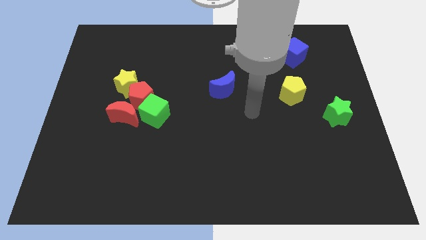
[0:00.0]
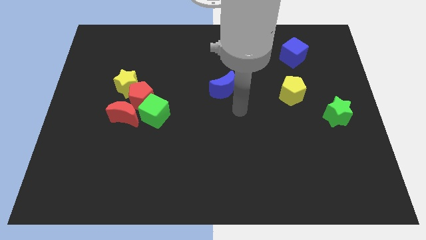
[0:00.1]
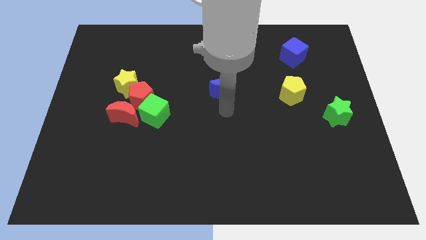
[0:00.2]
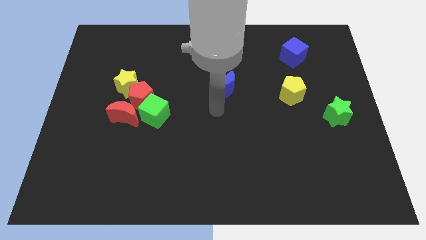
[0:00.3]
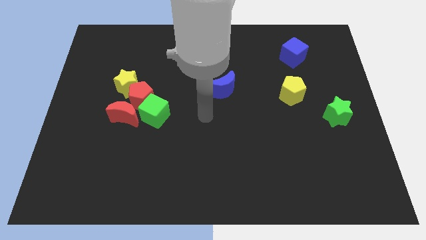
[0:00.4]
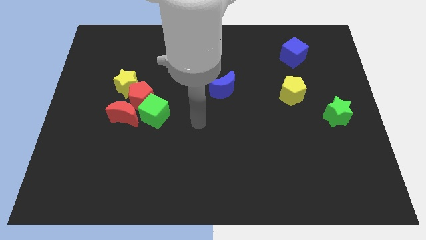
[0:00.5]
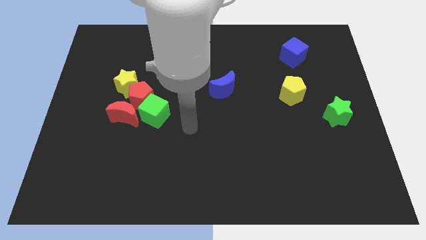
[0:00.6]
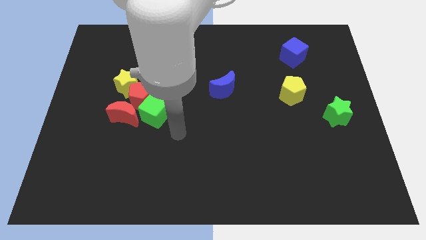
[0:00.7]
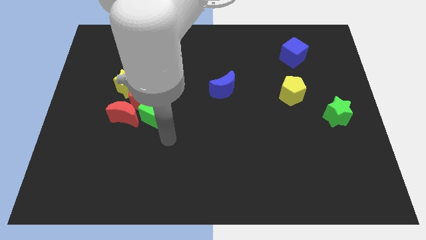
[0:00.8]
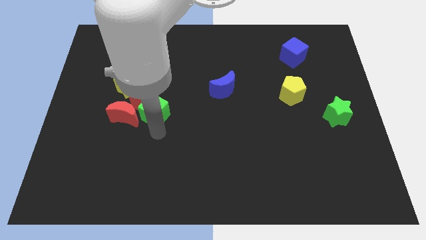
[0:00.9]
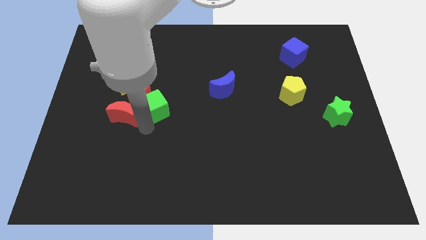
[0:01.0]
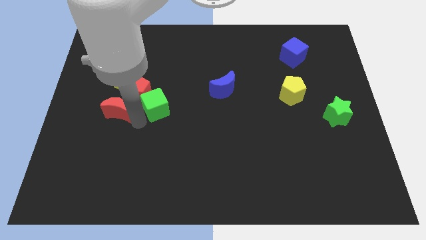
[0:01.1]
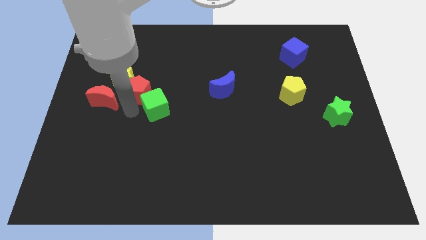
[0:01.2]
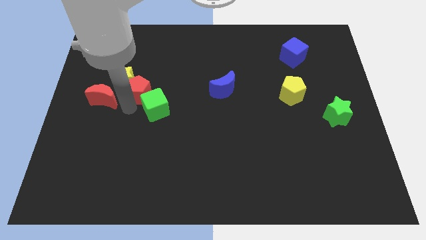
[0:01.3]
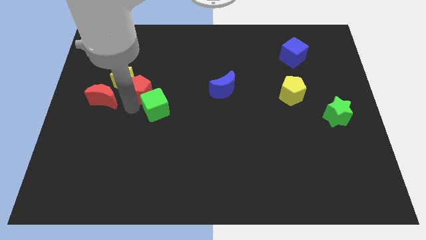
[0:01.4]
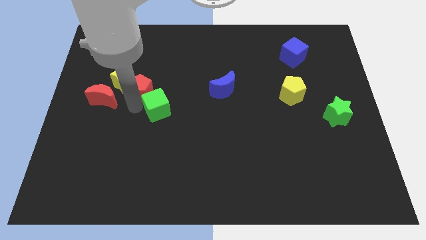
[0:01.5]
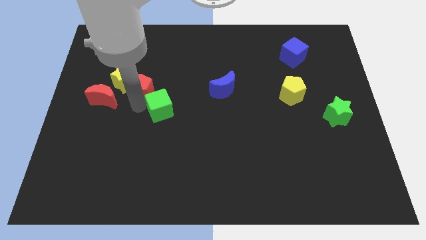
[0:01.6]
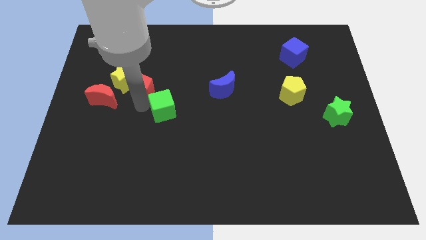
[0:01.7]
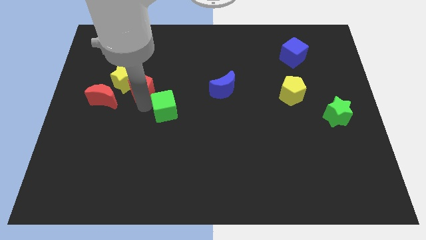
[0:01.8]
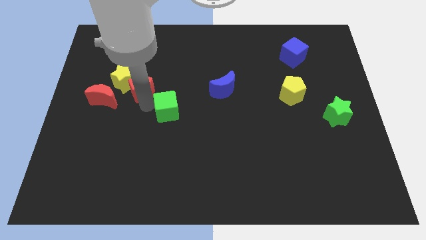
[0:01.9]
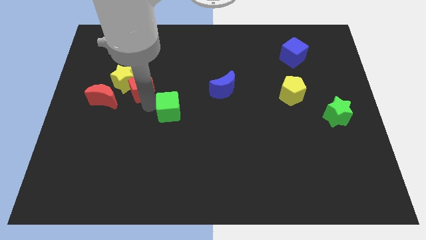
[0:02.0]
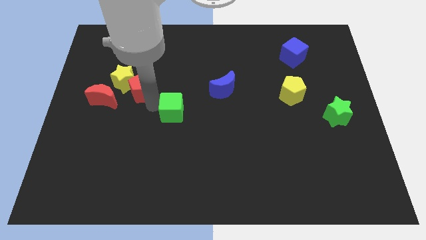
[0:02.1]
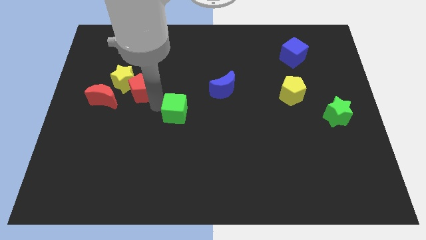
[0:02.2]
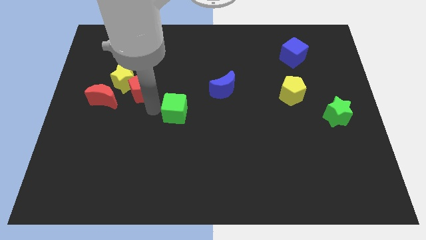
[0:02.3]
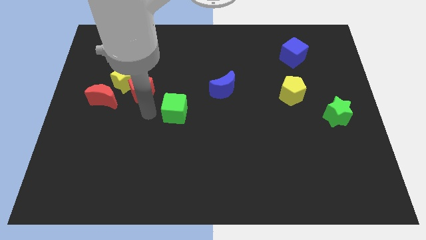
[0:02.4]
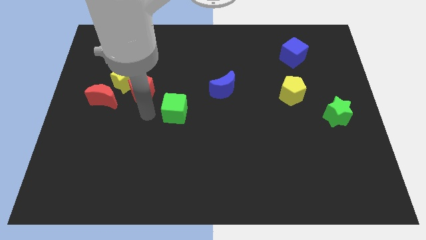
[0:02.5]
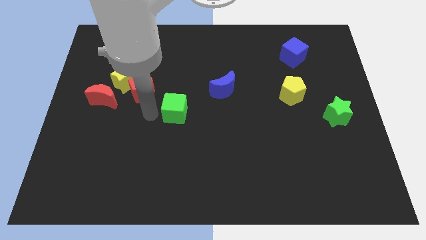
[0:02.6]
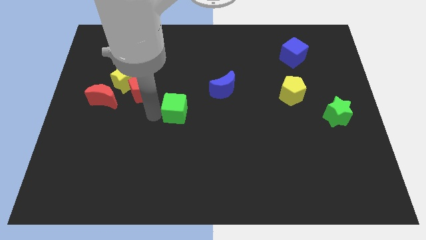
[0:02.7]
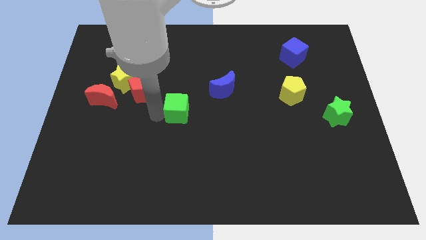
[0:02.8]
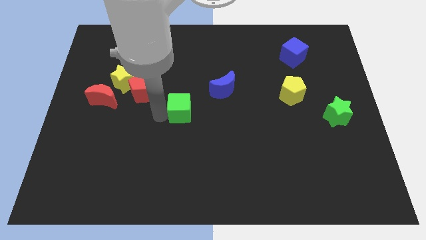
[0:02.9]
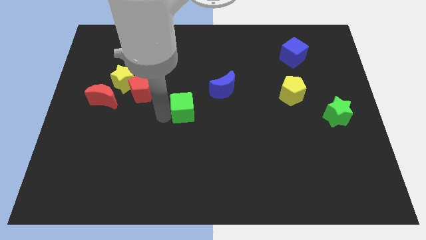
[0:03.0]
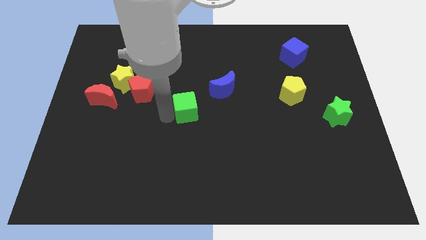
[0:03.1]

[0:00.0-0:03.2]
slightly move the green cube to the right

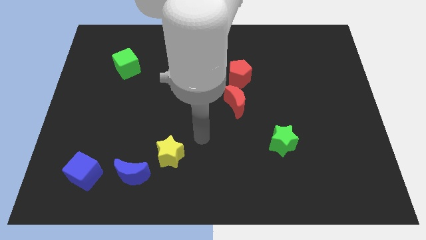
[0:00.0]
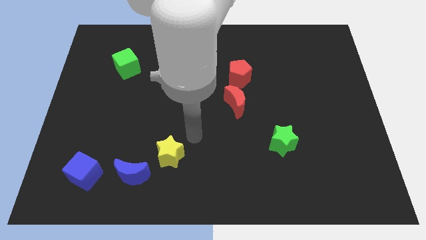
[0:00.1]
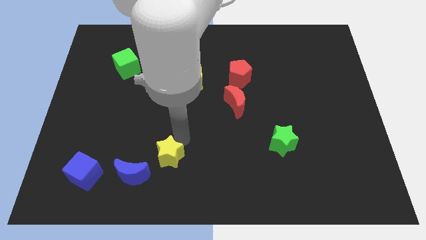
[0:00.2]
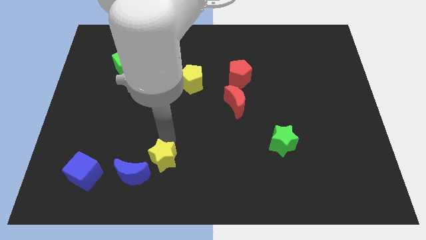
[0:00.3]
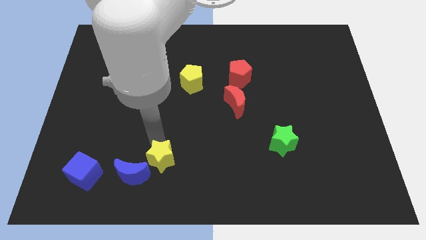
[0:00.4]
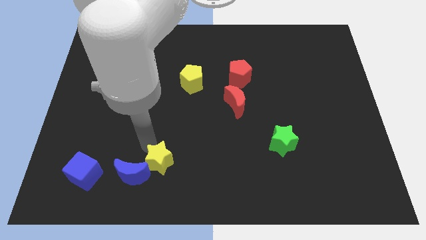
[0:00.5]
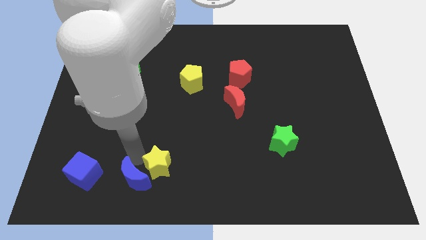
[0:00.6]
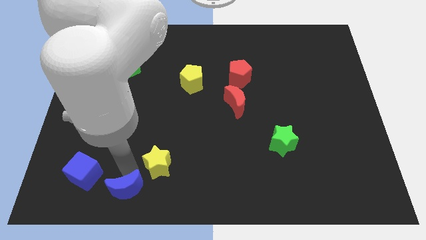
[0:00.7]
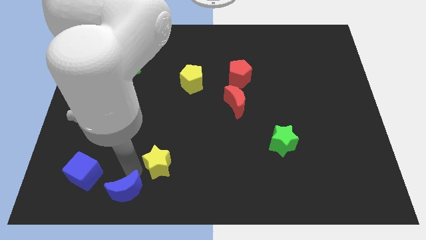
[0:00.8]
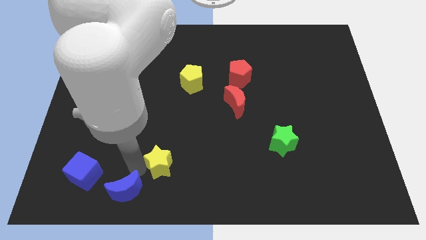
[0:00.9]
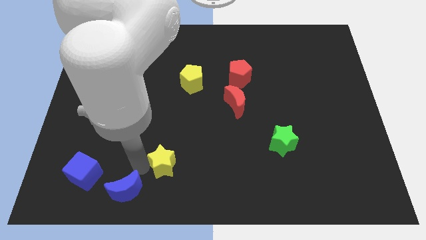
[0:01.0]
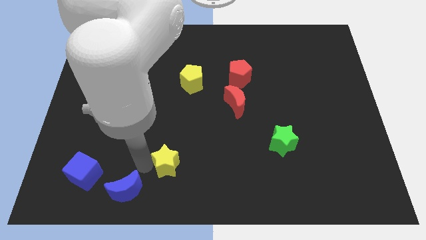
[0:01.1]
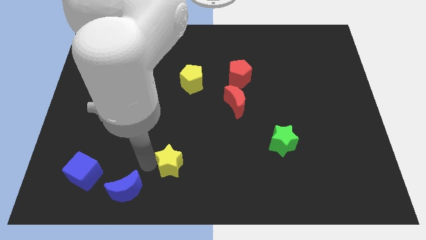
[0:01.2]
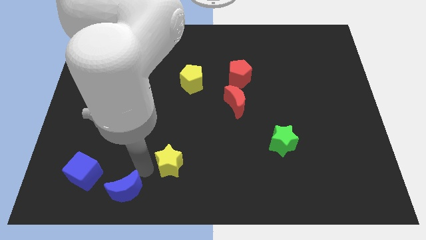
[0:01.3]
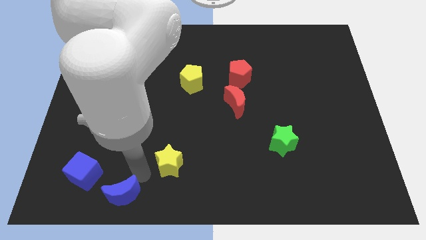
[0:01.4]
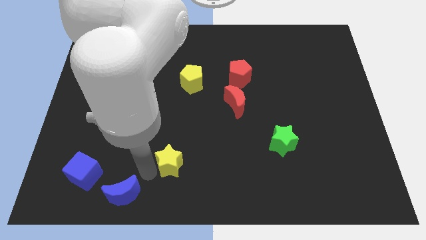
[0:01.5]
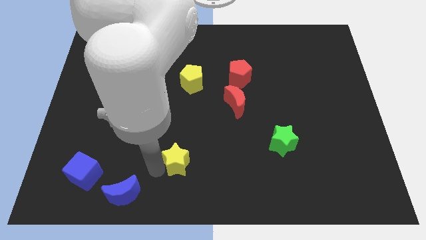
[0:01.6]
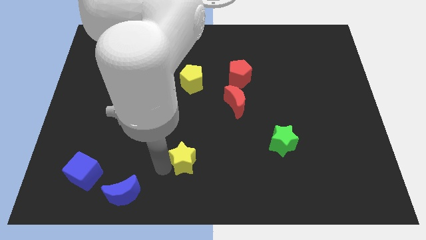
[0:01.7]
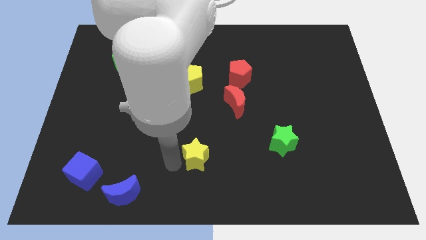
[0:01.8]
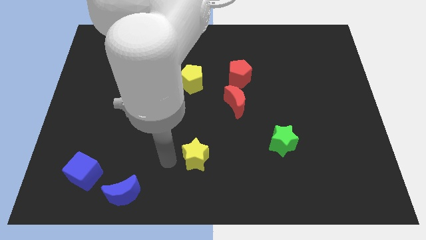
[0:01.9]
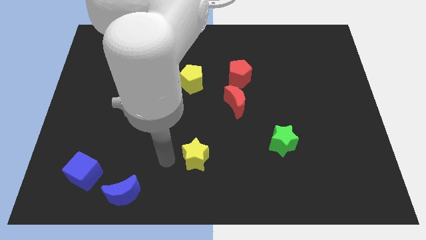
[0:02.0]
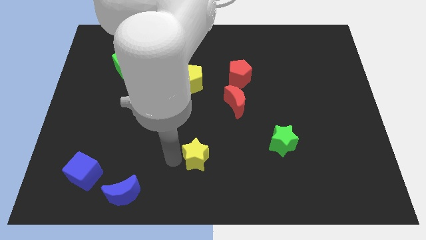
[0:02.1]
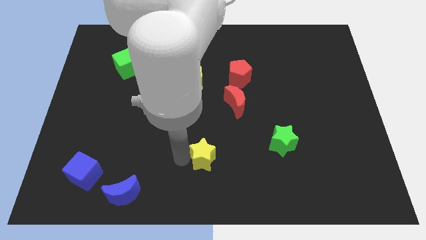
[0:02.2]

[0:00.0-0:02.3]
move the yellow star slightly to the right

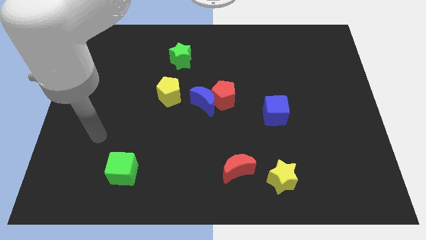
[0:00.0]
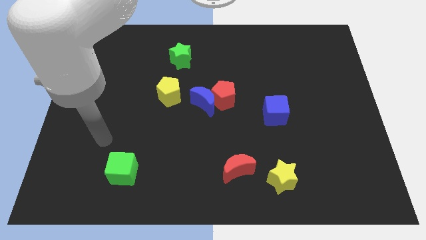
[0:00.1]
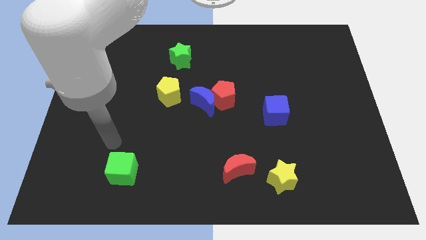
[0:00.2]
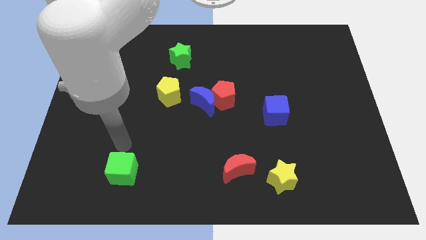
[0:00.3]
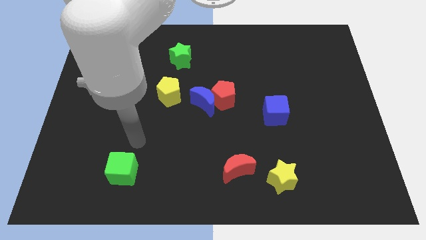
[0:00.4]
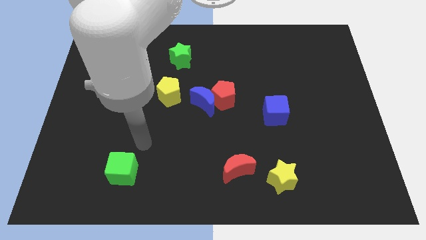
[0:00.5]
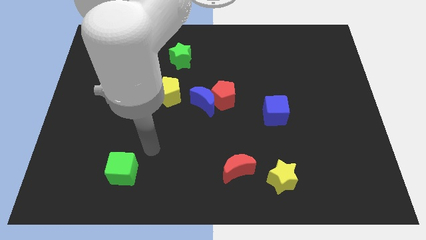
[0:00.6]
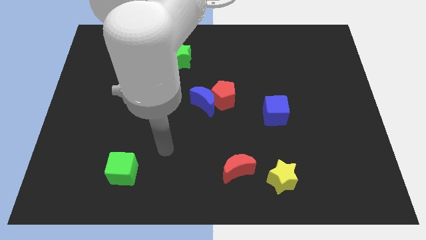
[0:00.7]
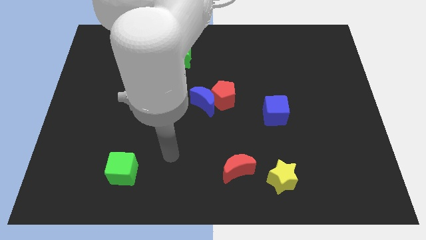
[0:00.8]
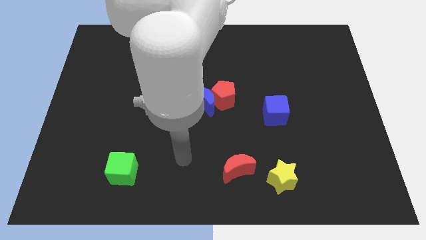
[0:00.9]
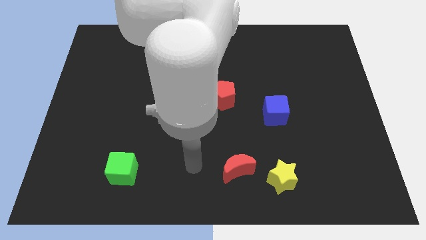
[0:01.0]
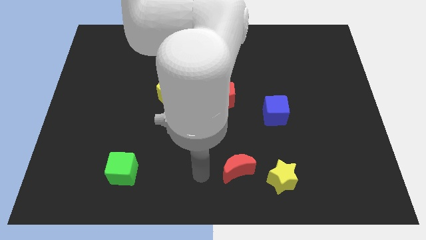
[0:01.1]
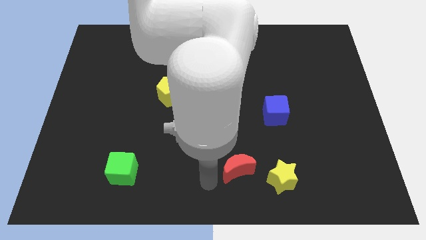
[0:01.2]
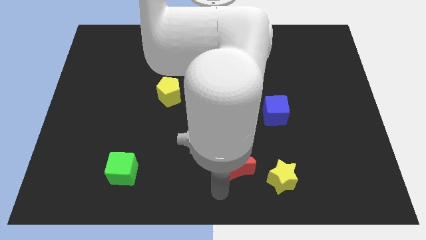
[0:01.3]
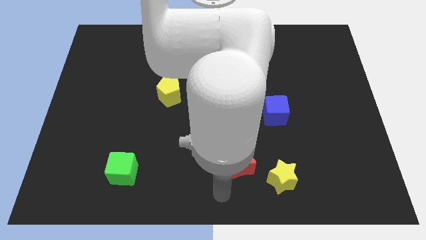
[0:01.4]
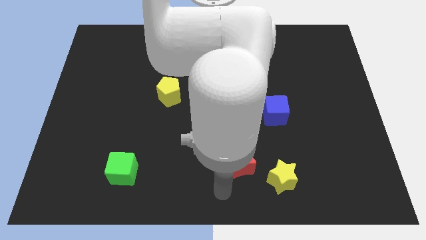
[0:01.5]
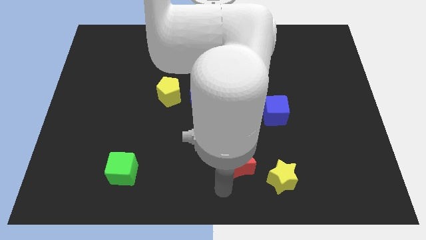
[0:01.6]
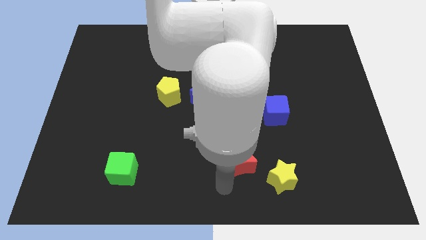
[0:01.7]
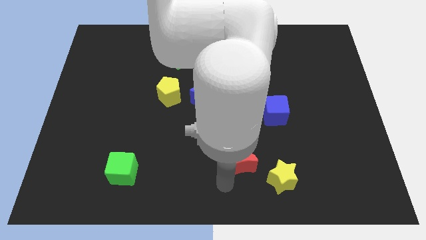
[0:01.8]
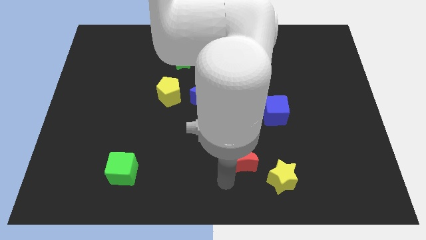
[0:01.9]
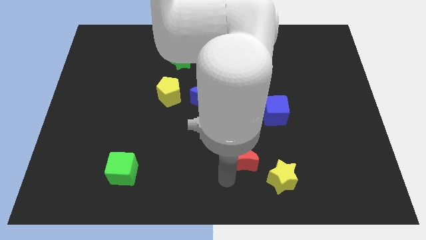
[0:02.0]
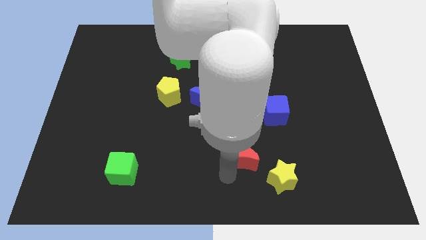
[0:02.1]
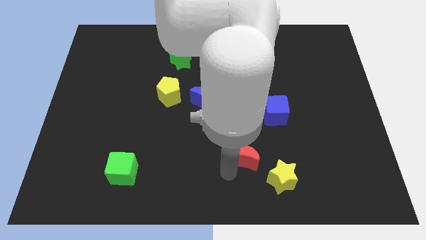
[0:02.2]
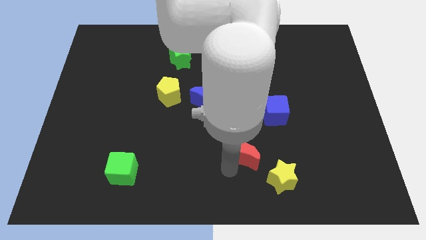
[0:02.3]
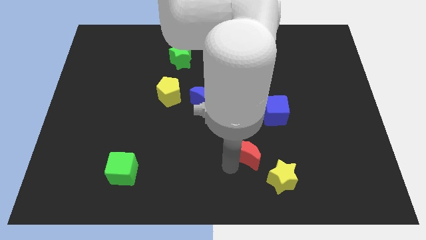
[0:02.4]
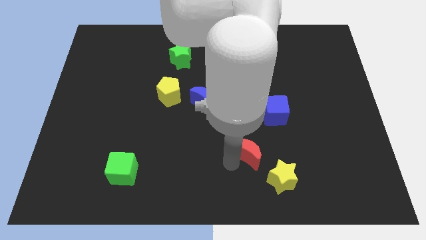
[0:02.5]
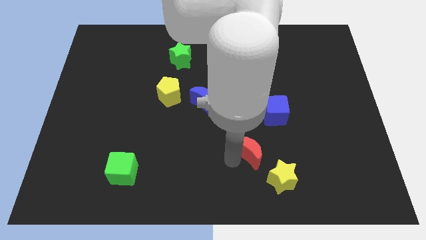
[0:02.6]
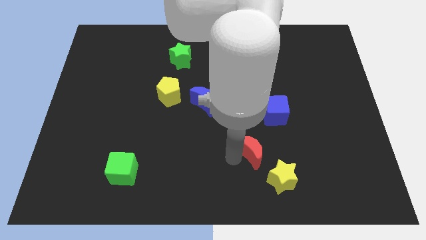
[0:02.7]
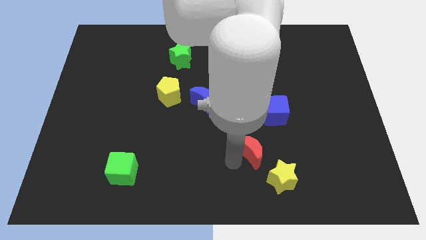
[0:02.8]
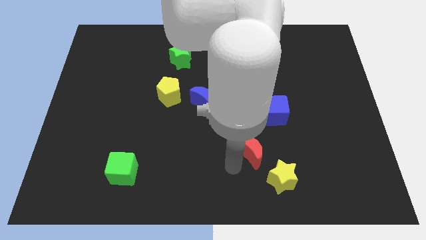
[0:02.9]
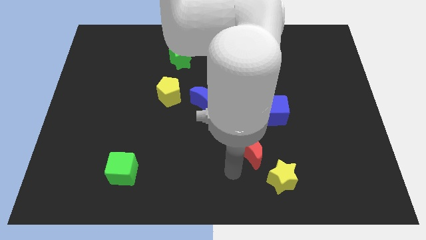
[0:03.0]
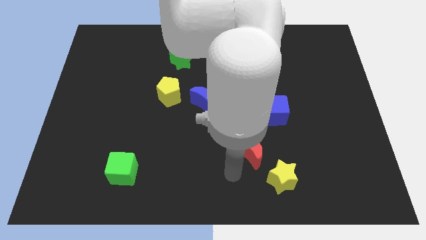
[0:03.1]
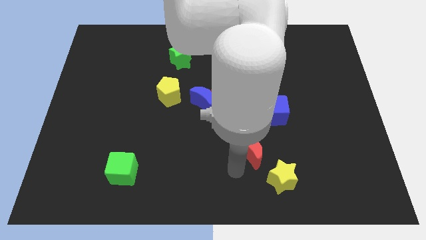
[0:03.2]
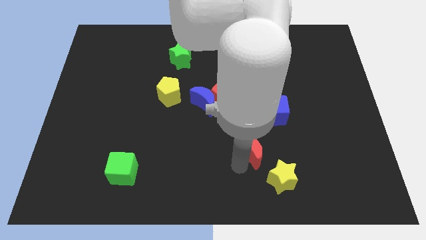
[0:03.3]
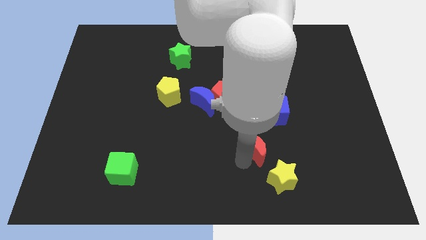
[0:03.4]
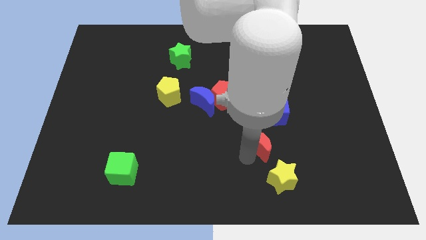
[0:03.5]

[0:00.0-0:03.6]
push the red moon up and right diagonally a little bit
